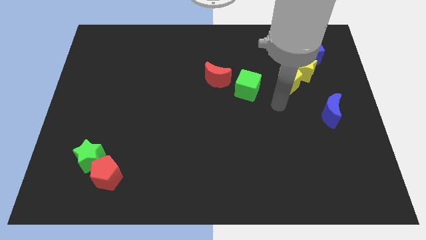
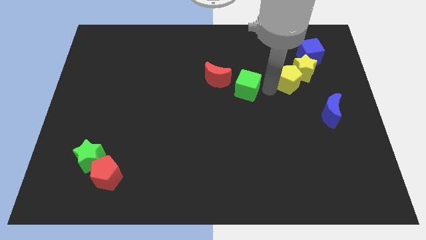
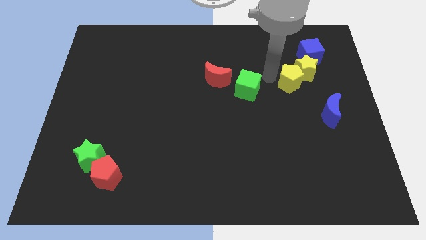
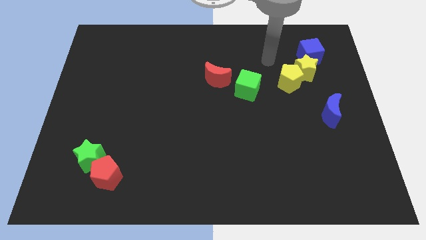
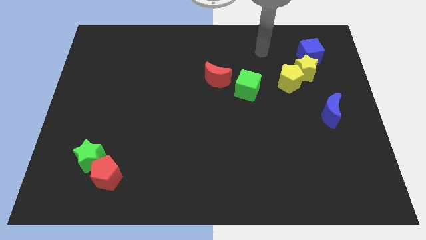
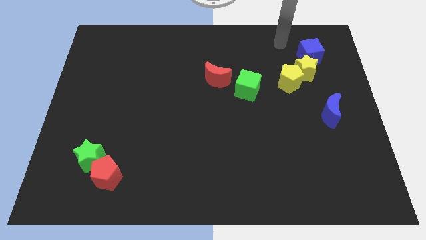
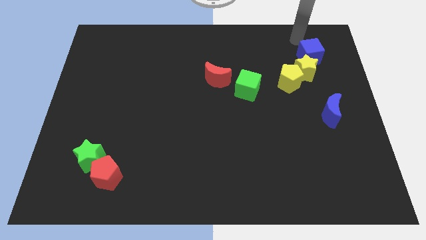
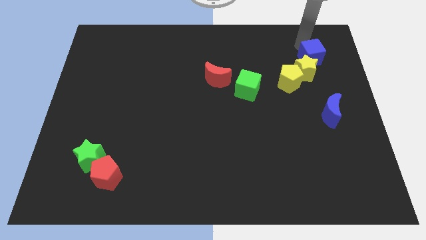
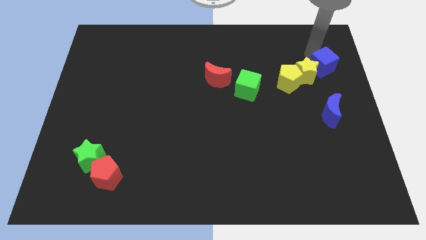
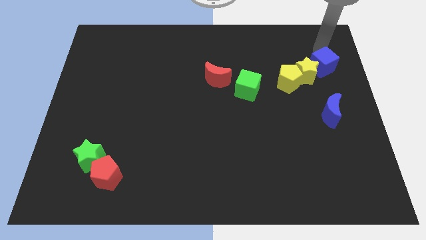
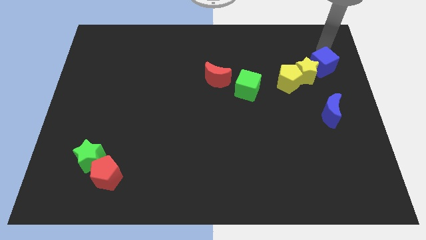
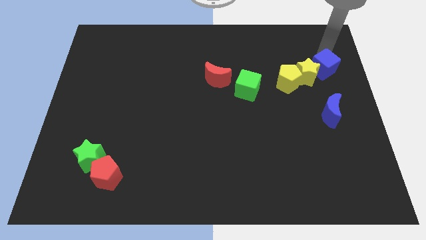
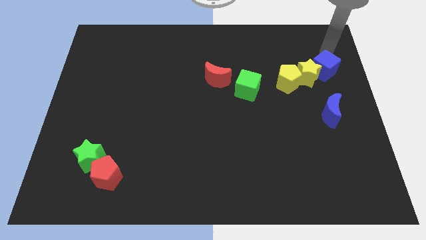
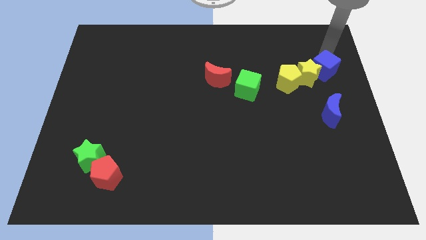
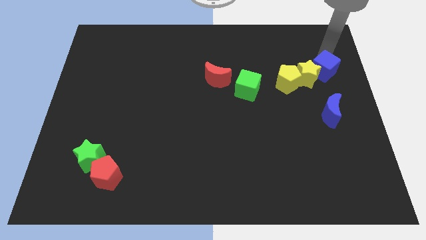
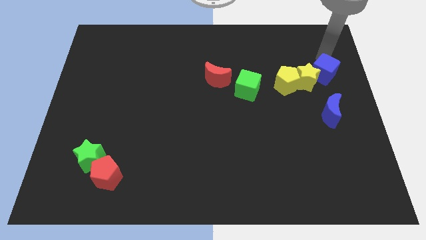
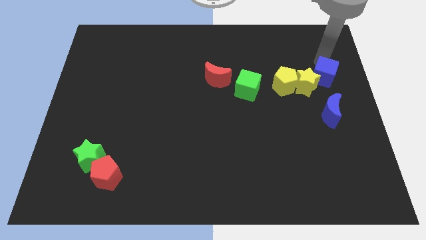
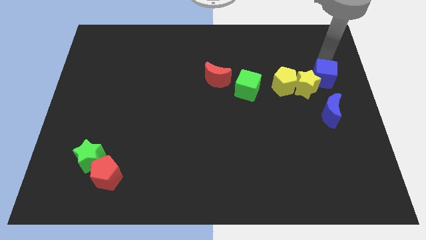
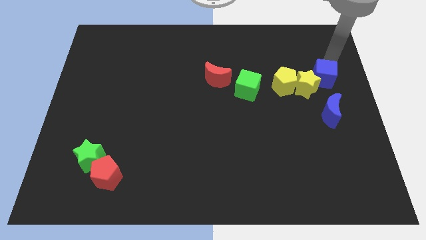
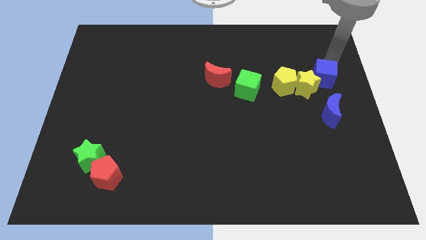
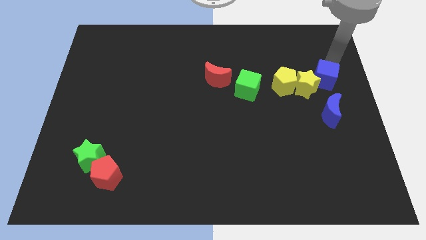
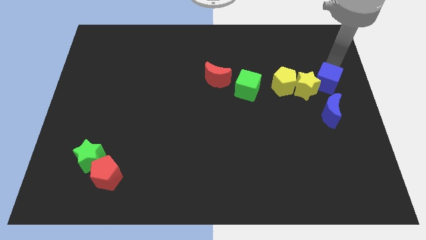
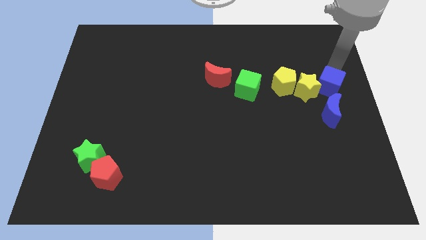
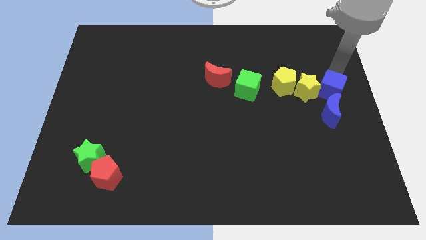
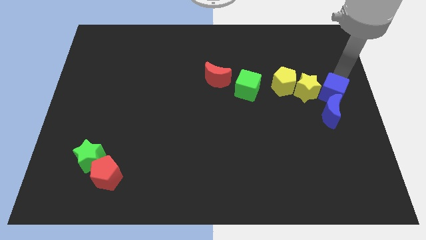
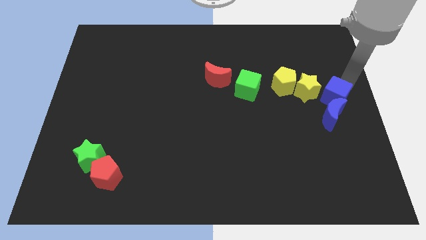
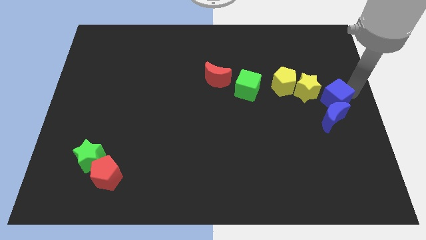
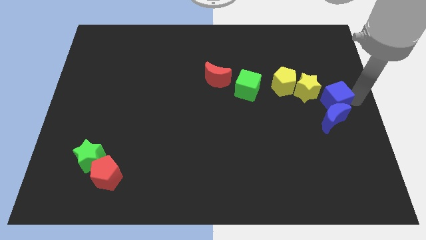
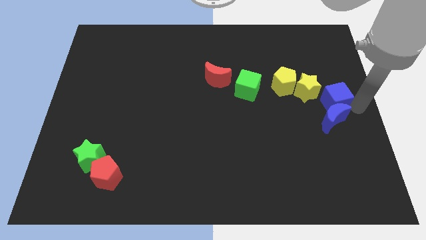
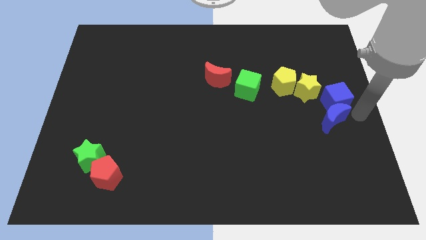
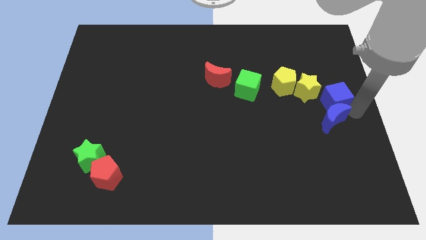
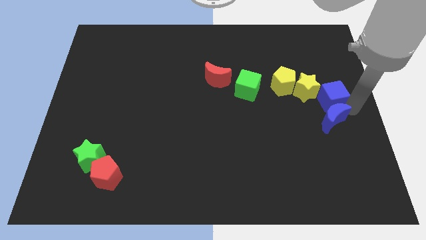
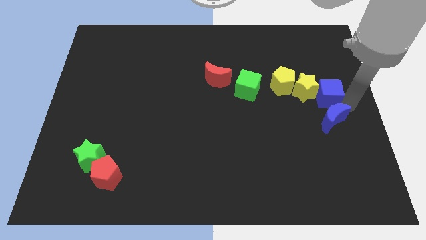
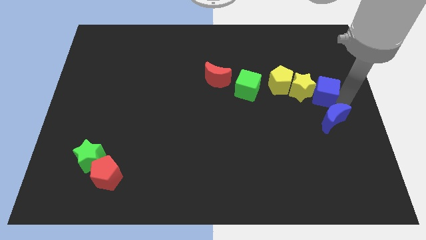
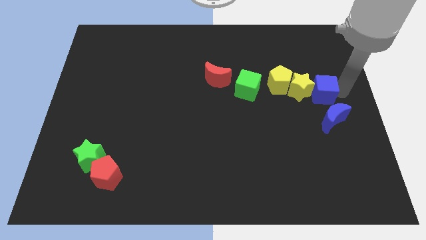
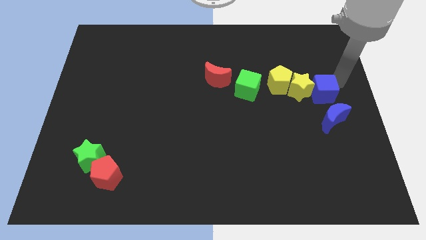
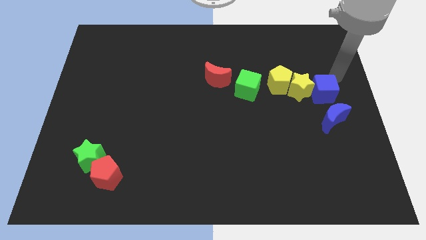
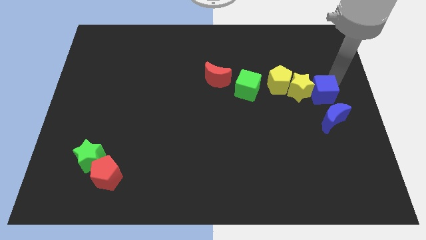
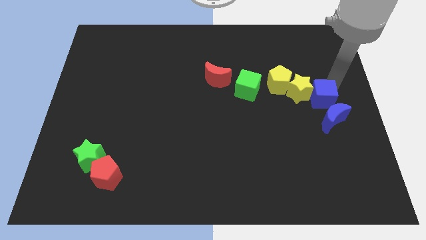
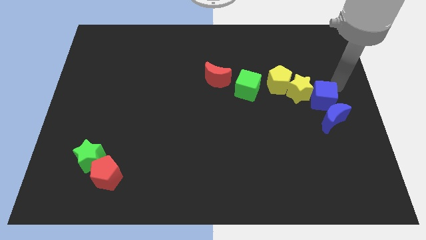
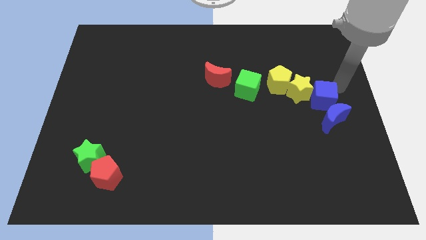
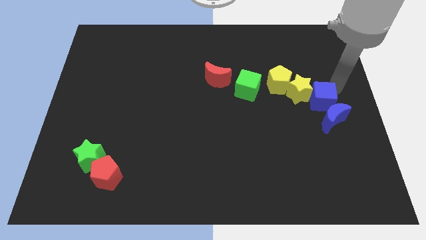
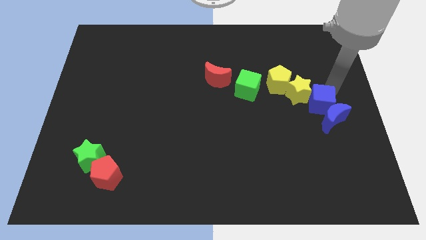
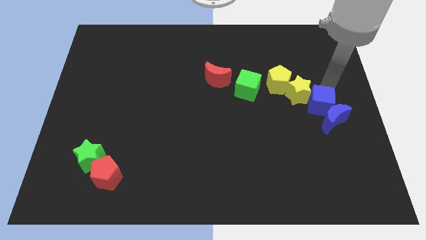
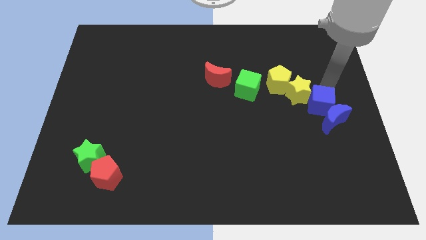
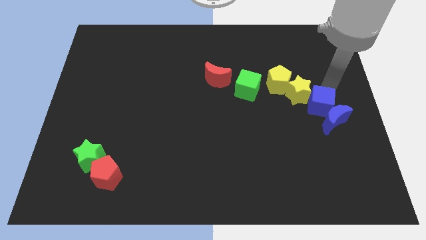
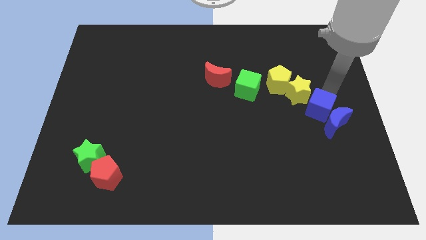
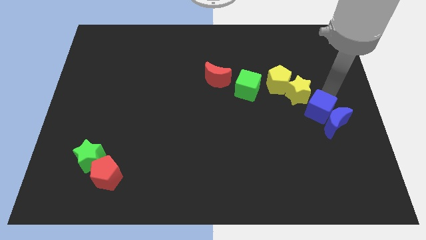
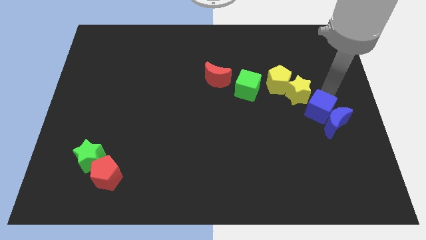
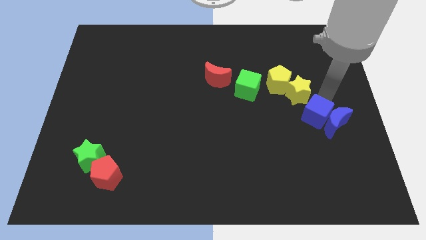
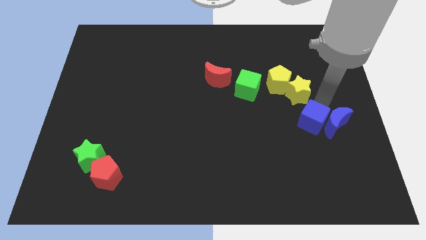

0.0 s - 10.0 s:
move the blue cube down

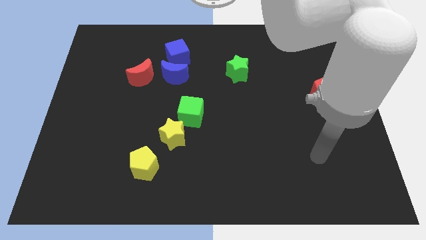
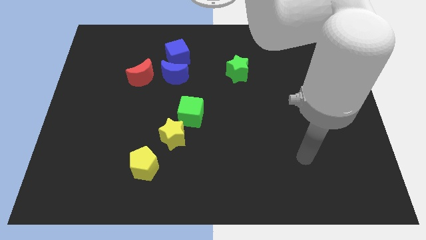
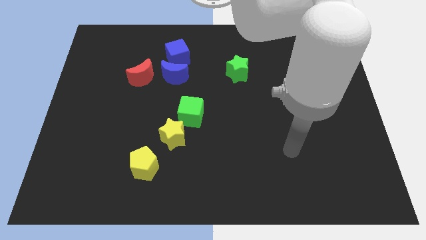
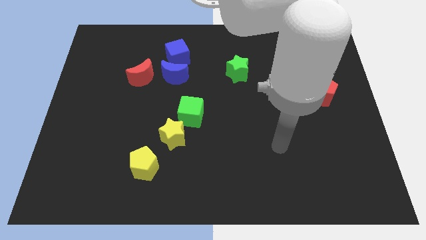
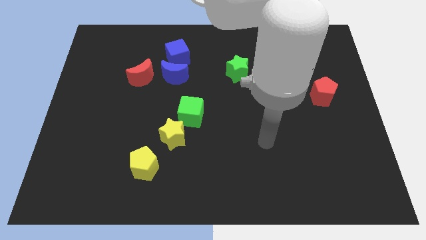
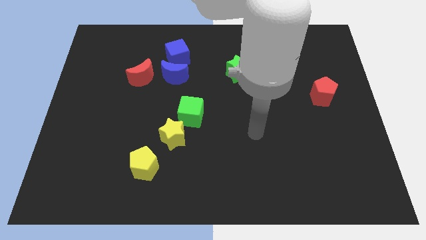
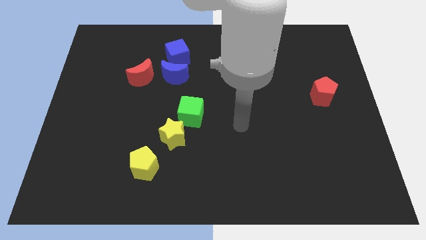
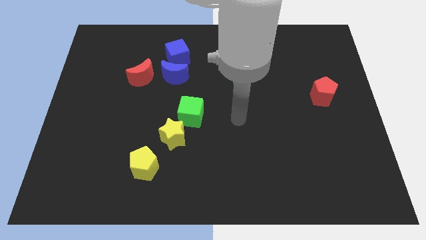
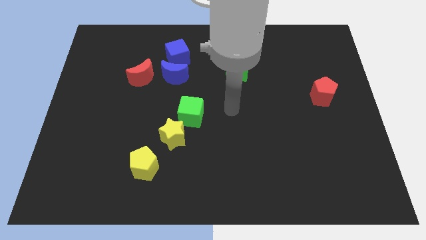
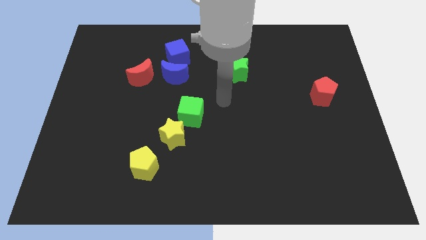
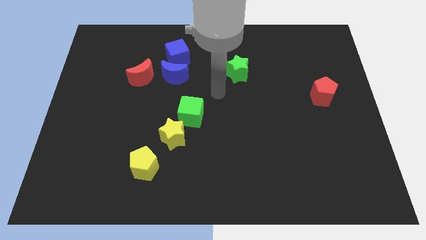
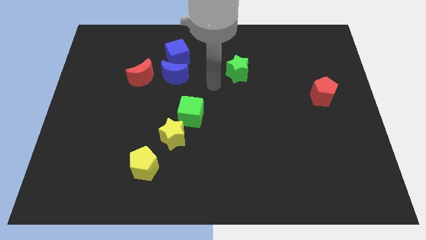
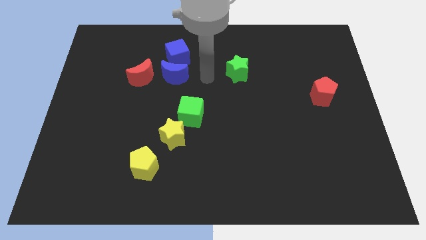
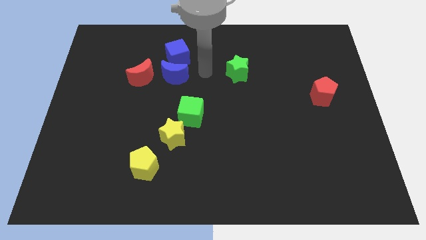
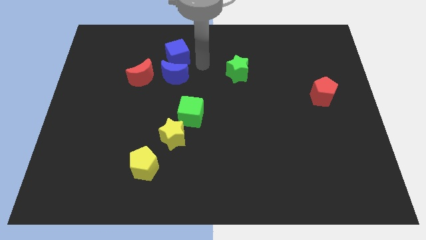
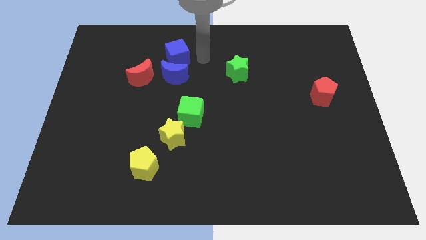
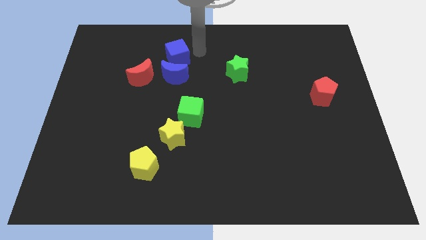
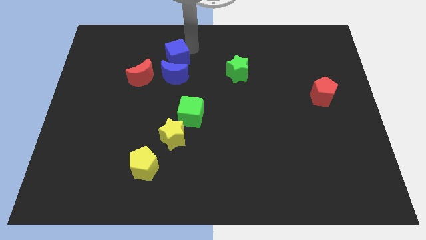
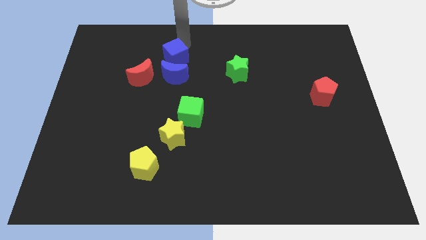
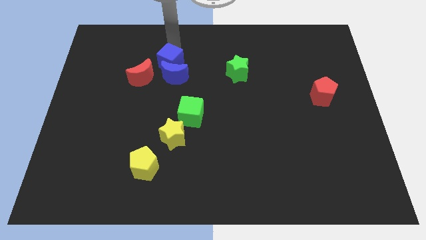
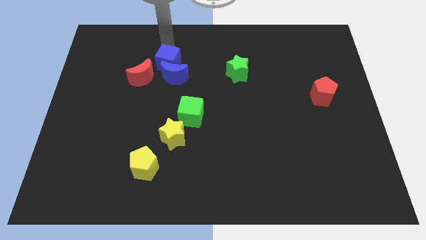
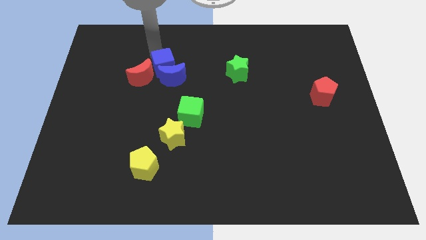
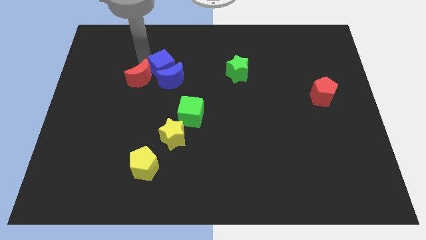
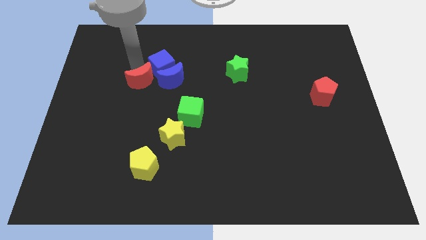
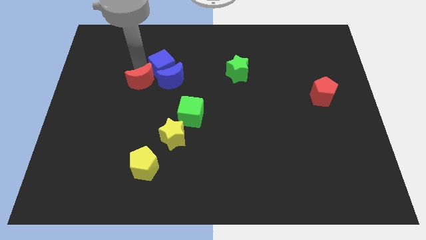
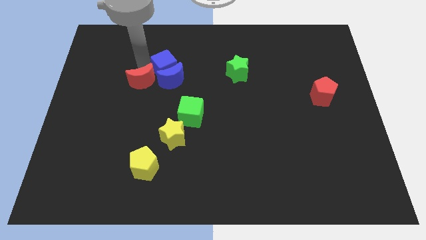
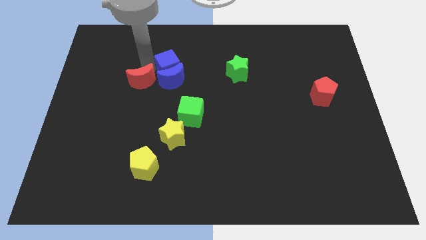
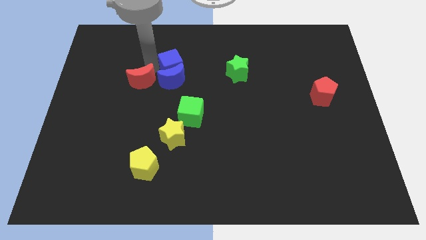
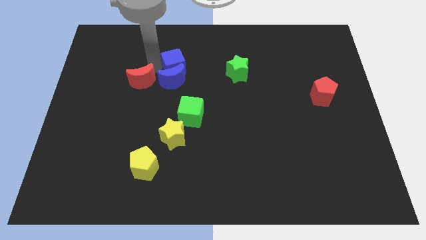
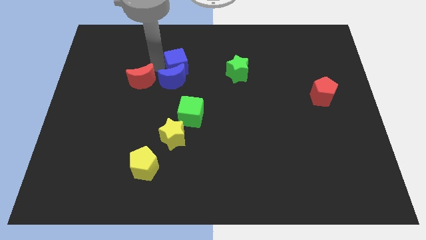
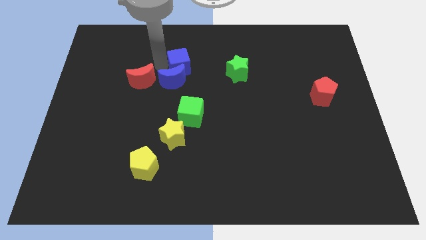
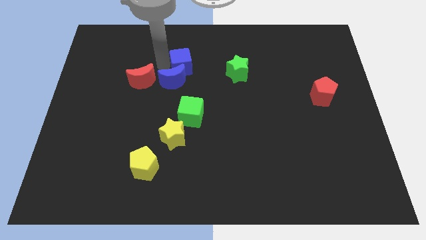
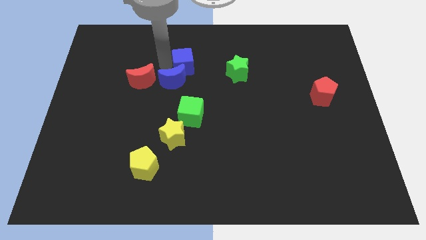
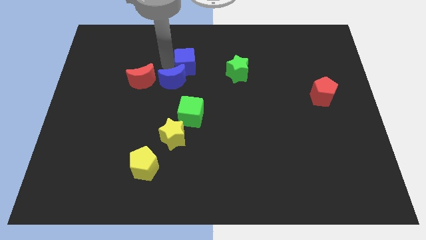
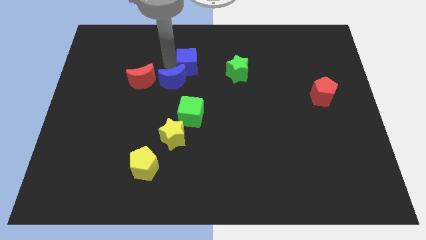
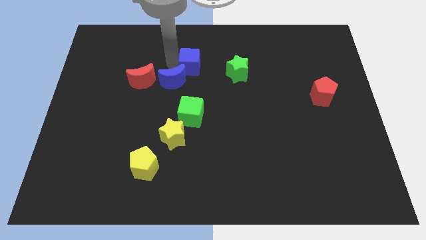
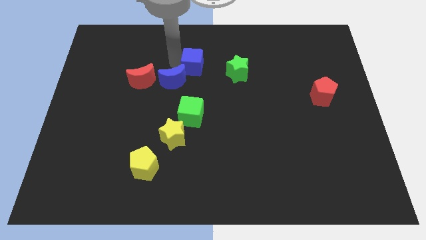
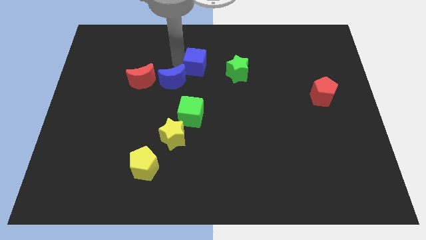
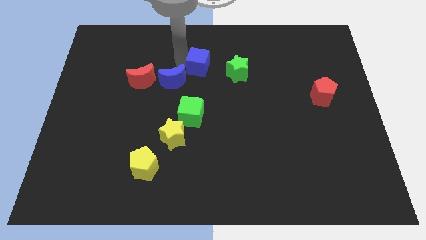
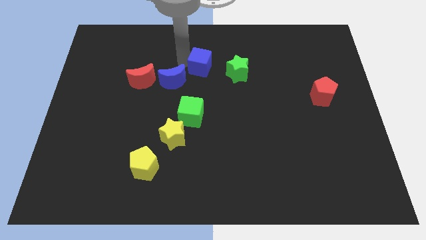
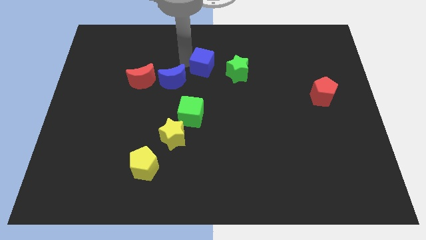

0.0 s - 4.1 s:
slide the blue cube a little bit diagonally downwards and right
